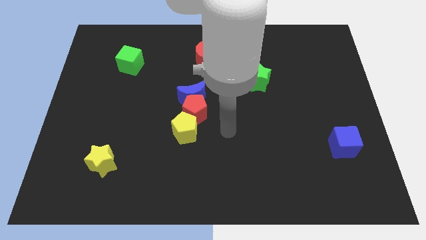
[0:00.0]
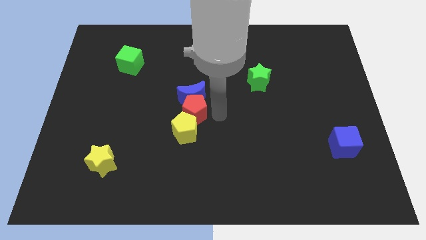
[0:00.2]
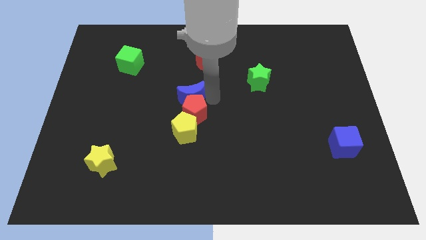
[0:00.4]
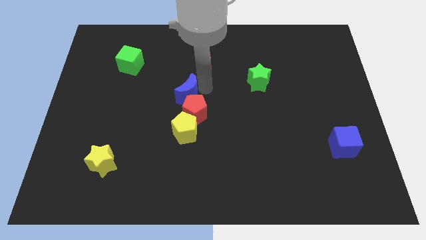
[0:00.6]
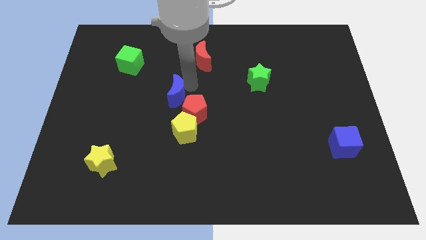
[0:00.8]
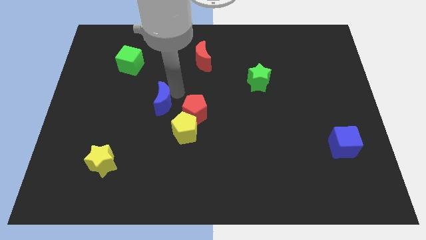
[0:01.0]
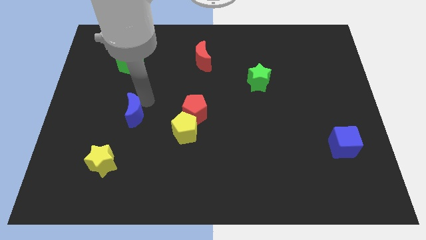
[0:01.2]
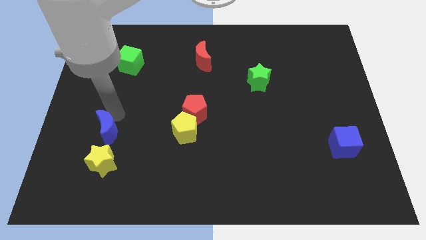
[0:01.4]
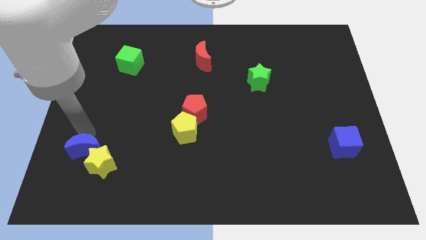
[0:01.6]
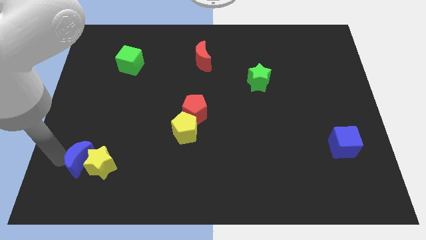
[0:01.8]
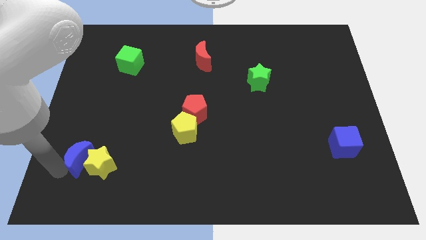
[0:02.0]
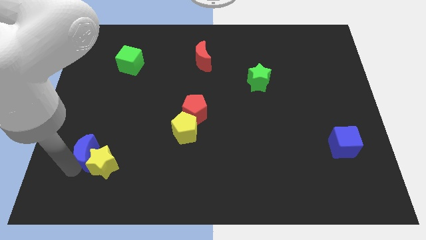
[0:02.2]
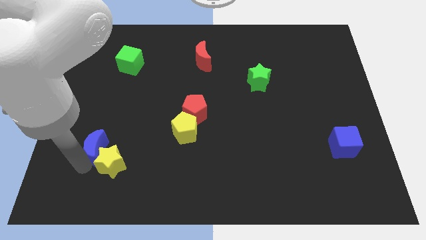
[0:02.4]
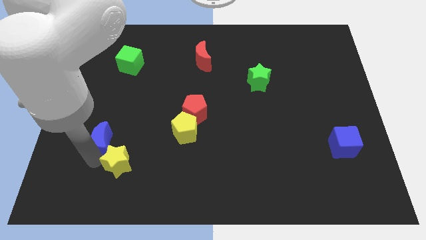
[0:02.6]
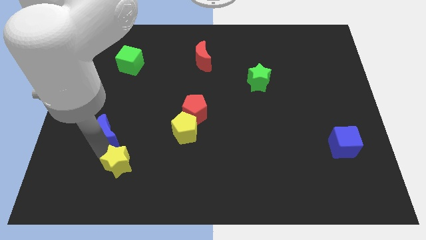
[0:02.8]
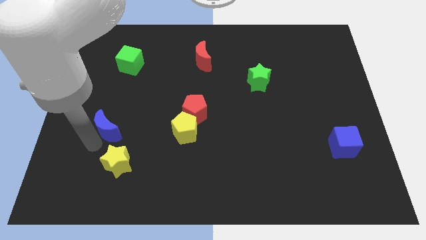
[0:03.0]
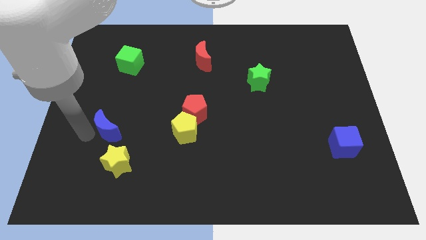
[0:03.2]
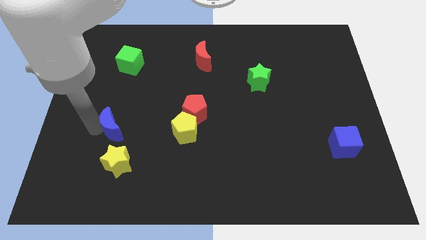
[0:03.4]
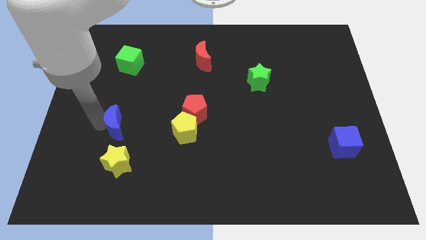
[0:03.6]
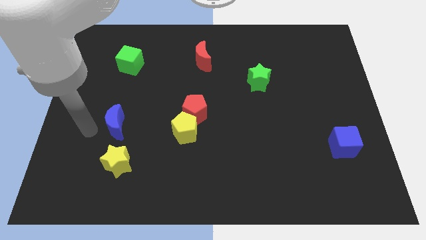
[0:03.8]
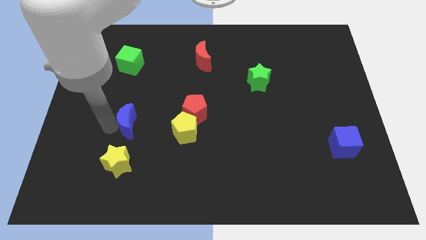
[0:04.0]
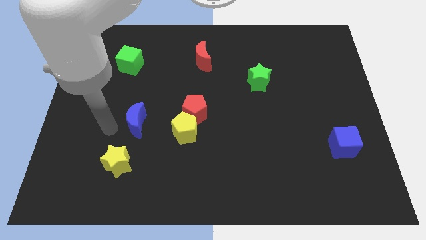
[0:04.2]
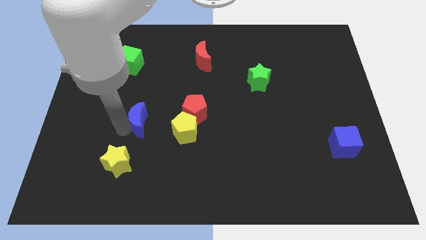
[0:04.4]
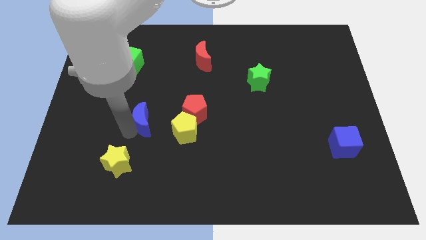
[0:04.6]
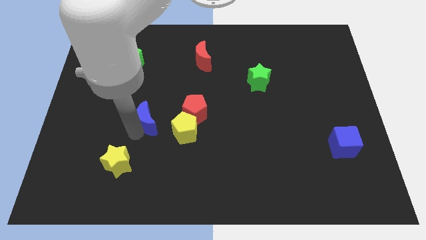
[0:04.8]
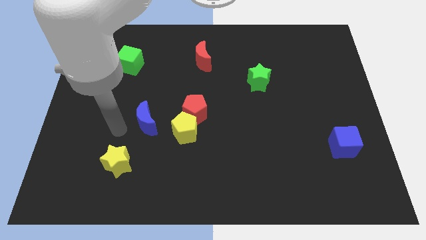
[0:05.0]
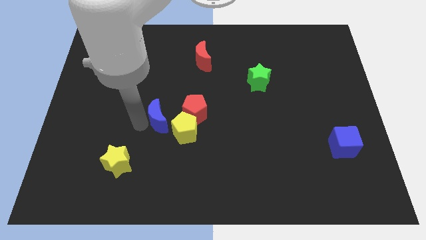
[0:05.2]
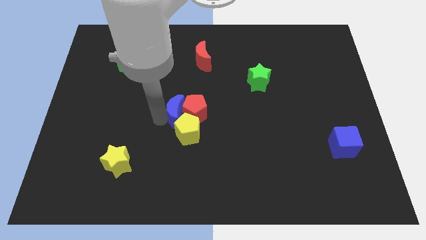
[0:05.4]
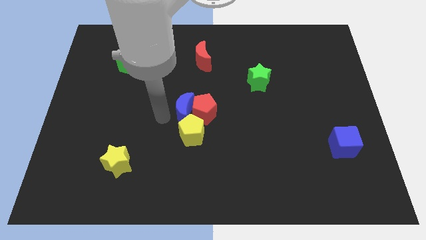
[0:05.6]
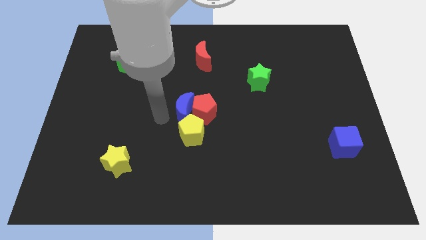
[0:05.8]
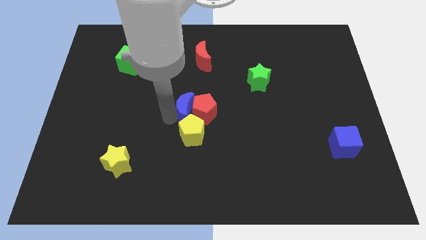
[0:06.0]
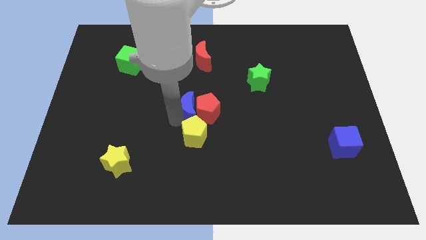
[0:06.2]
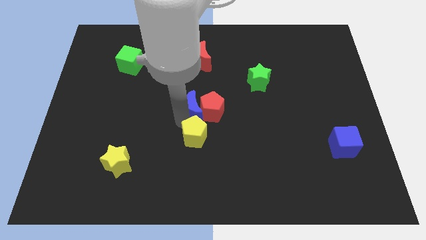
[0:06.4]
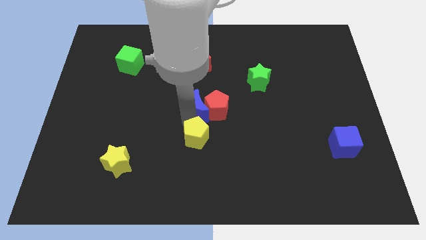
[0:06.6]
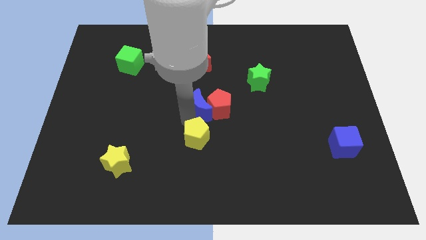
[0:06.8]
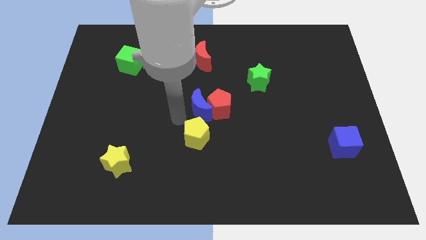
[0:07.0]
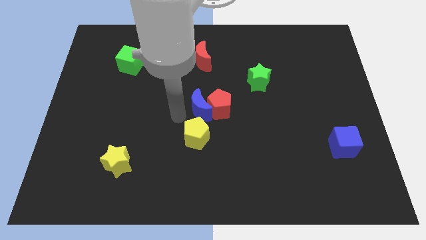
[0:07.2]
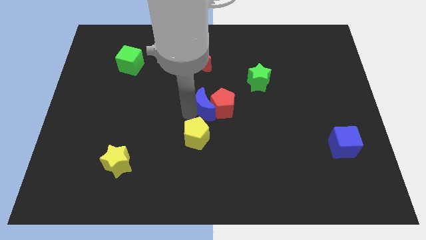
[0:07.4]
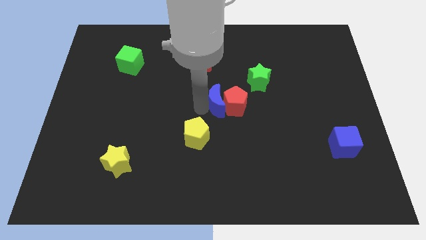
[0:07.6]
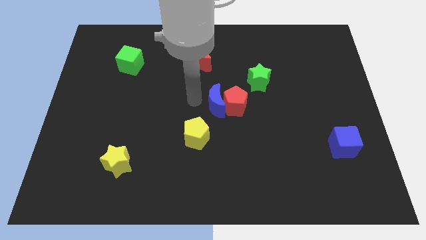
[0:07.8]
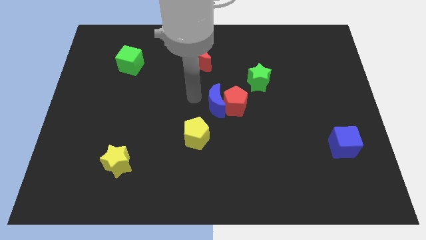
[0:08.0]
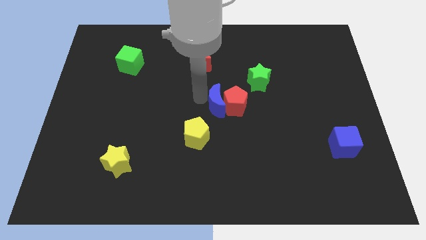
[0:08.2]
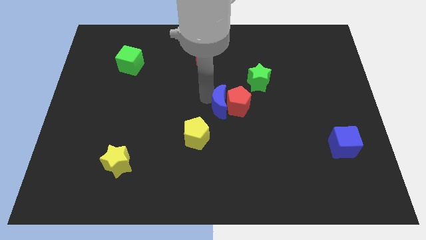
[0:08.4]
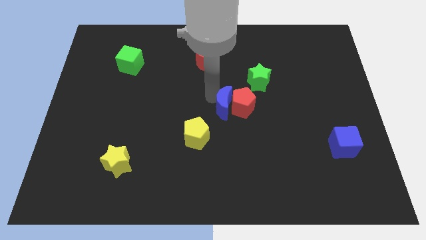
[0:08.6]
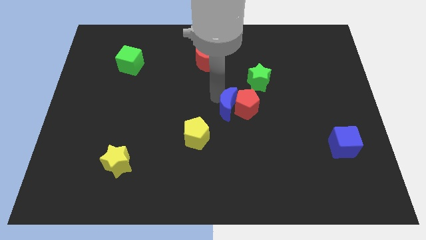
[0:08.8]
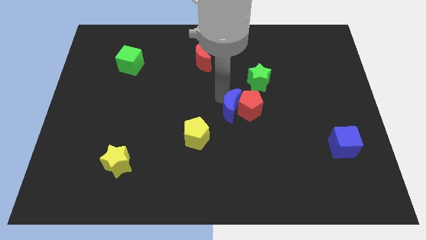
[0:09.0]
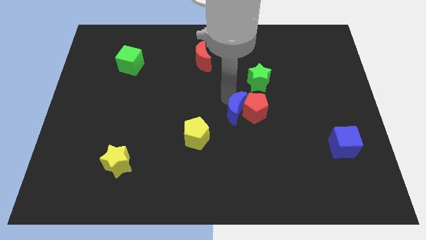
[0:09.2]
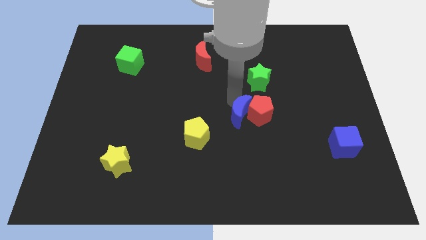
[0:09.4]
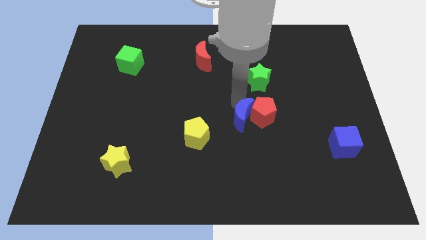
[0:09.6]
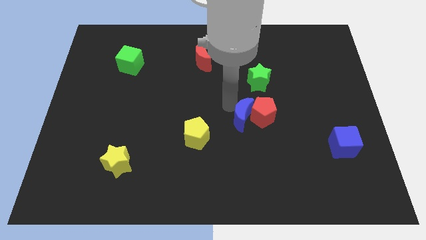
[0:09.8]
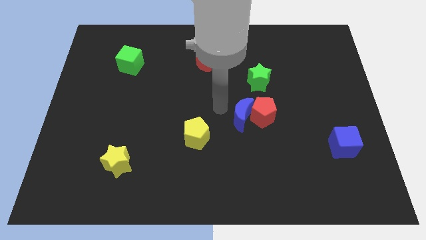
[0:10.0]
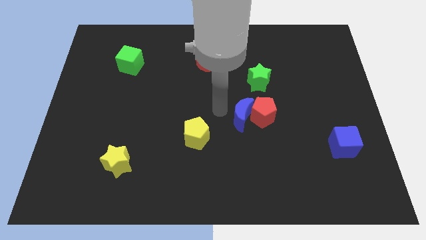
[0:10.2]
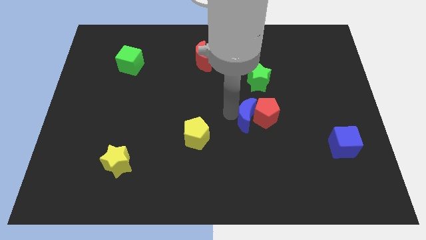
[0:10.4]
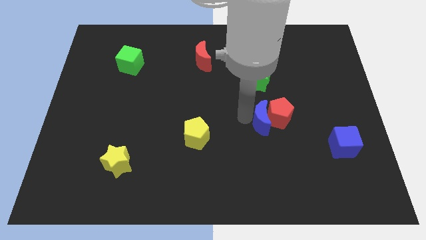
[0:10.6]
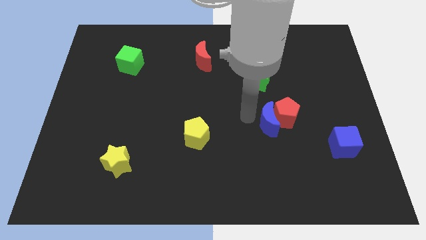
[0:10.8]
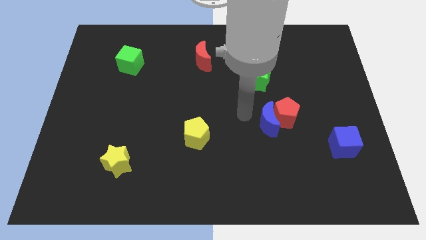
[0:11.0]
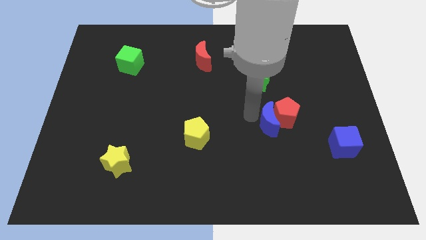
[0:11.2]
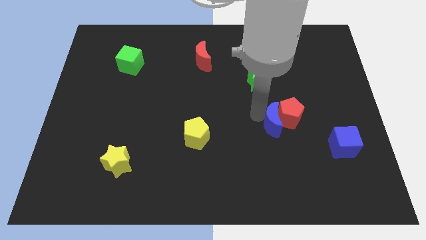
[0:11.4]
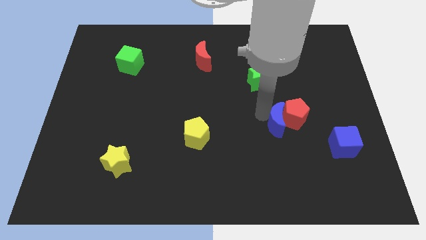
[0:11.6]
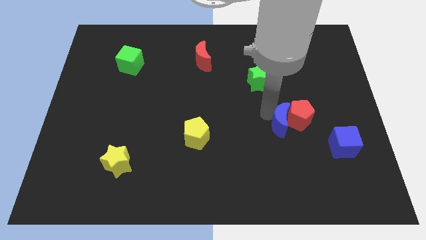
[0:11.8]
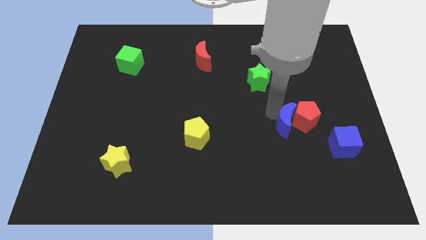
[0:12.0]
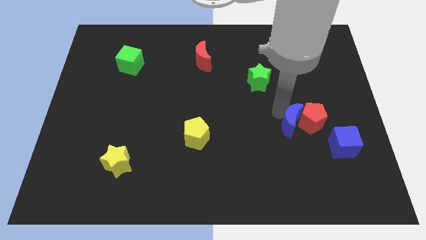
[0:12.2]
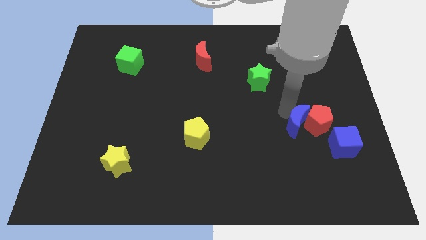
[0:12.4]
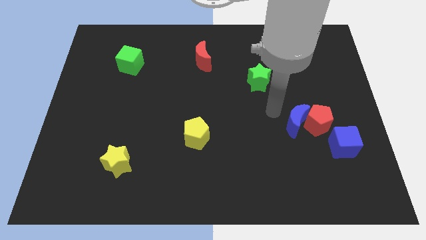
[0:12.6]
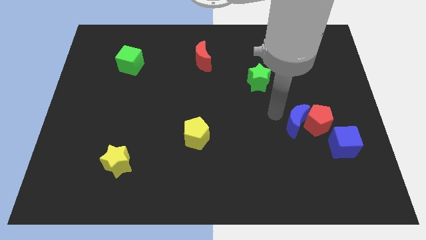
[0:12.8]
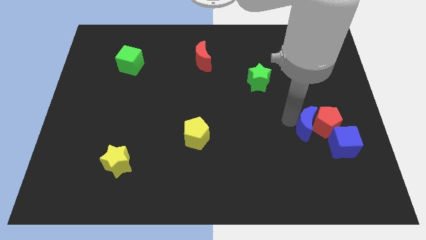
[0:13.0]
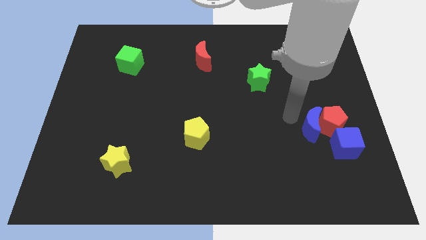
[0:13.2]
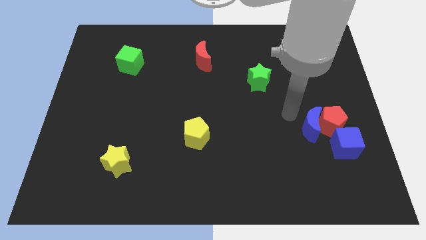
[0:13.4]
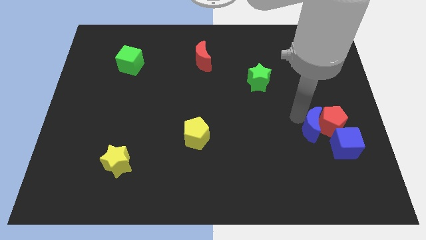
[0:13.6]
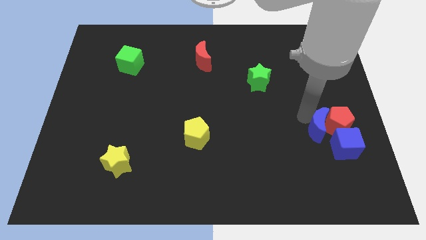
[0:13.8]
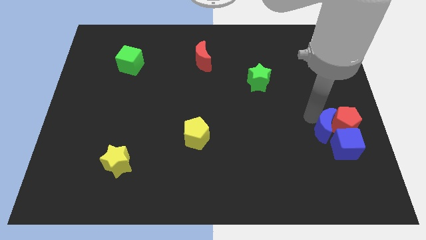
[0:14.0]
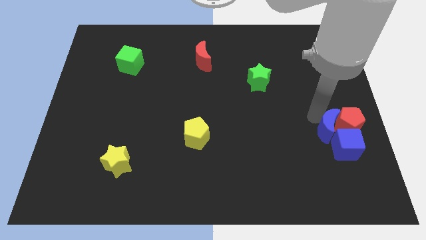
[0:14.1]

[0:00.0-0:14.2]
move the blue moon to the blue cube

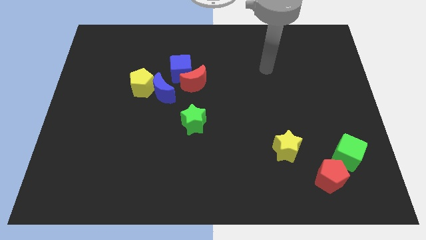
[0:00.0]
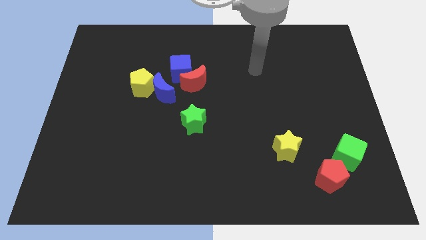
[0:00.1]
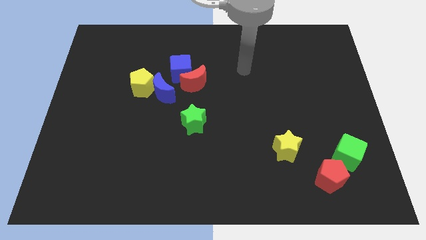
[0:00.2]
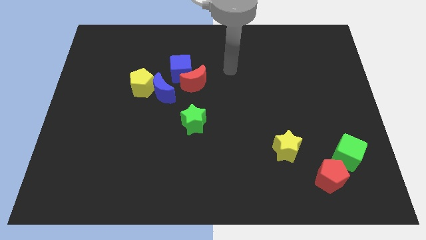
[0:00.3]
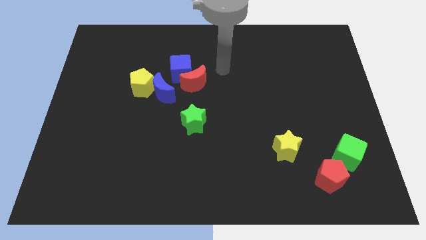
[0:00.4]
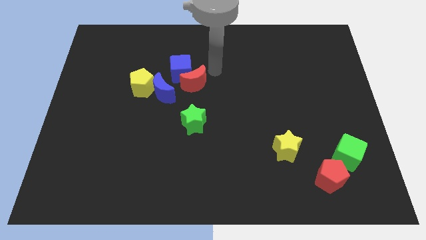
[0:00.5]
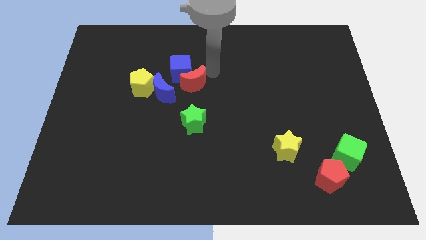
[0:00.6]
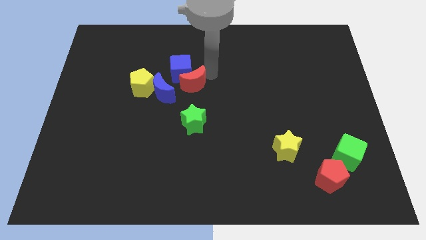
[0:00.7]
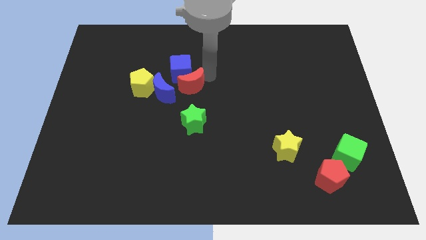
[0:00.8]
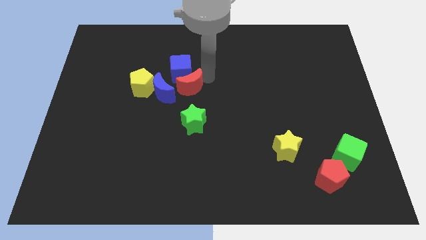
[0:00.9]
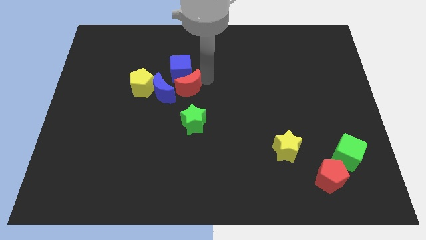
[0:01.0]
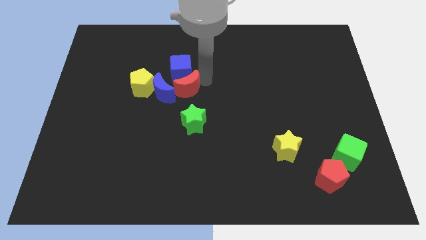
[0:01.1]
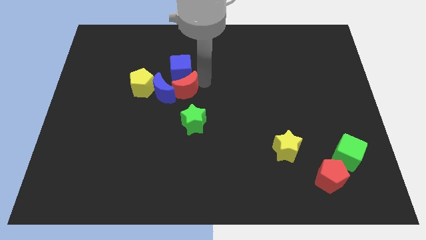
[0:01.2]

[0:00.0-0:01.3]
slide the red moon towards the blue moon
